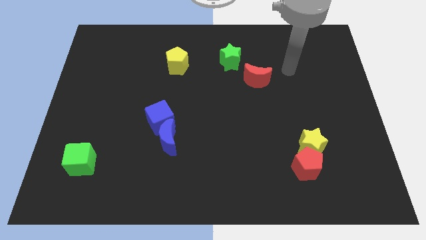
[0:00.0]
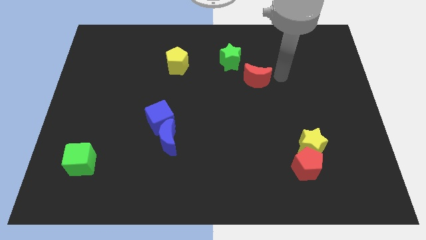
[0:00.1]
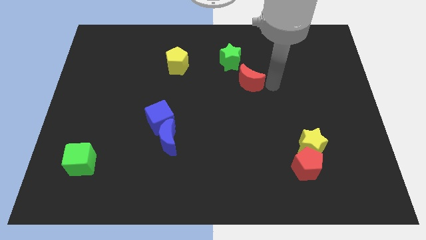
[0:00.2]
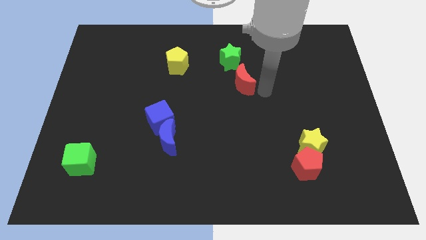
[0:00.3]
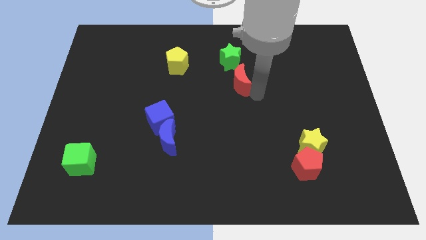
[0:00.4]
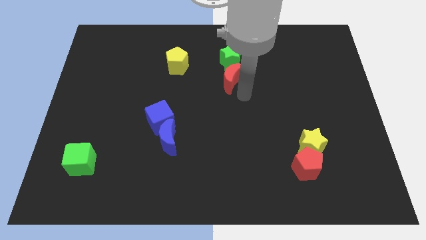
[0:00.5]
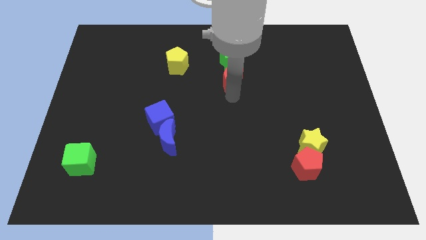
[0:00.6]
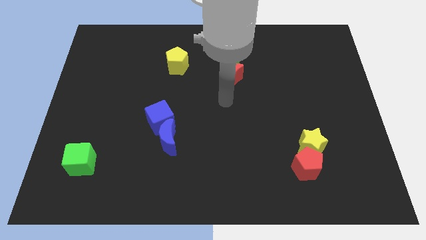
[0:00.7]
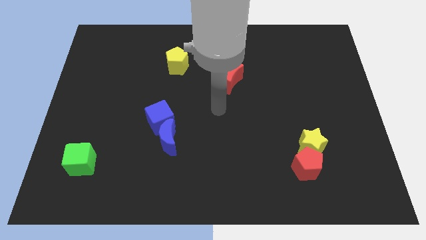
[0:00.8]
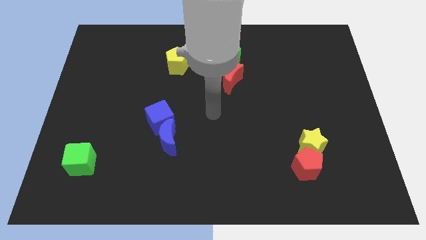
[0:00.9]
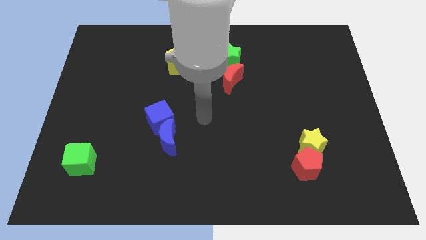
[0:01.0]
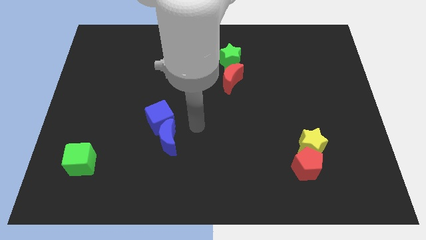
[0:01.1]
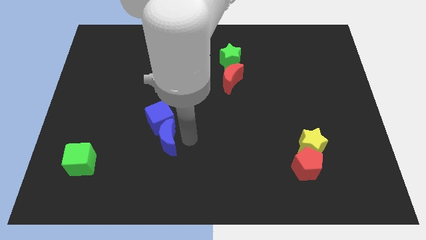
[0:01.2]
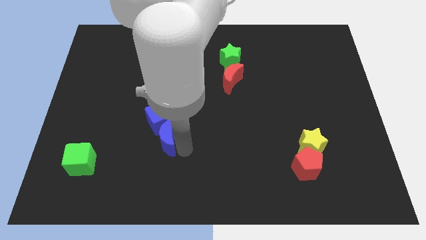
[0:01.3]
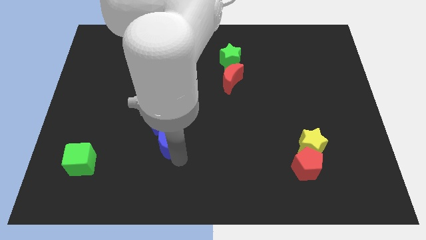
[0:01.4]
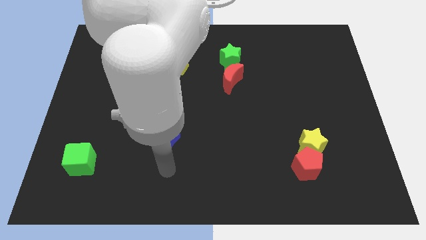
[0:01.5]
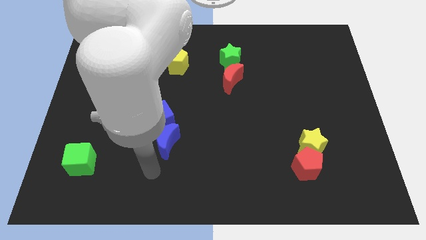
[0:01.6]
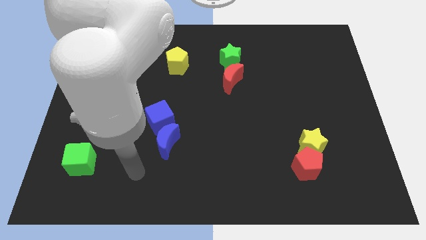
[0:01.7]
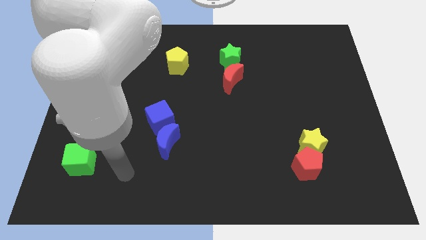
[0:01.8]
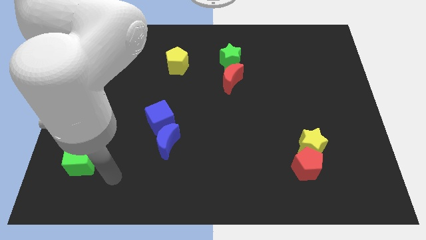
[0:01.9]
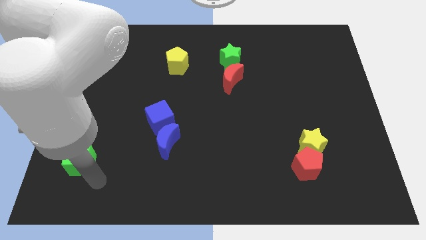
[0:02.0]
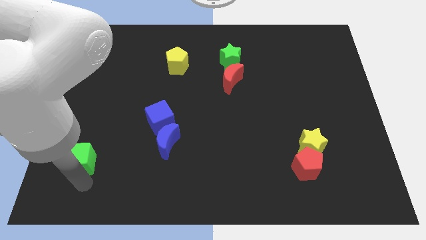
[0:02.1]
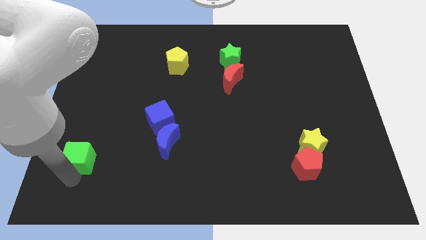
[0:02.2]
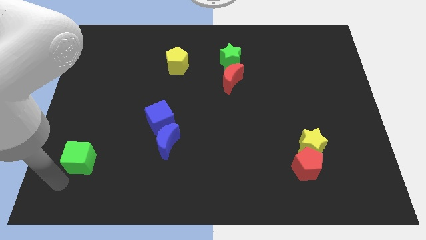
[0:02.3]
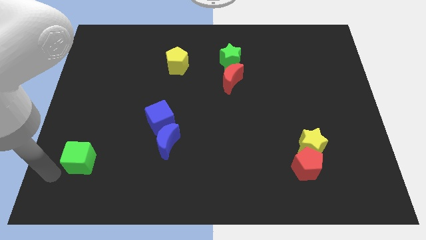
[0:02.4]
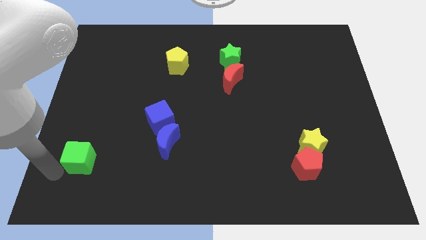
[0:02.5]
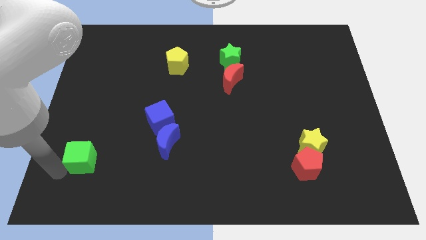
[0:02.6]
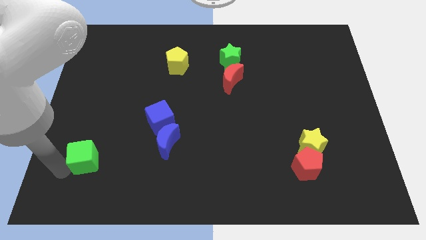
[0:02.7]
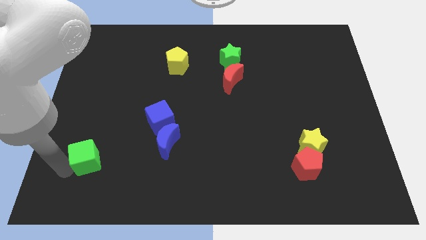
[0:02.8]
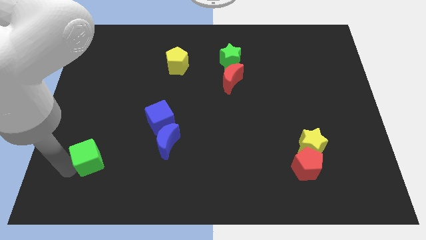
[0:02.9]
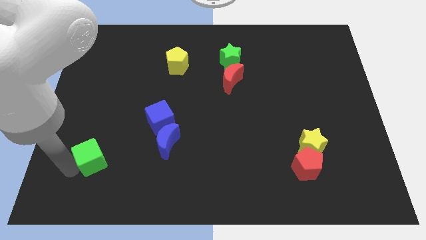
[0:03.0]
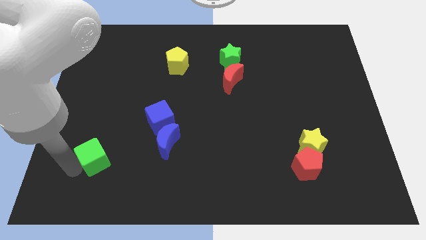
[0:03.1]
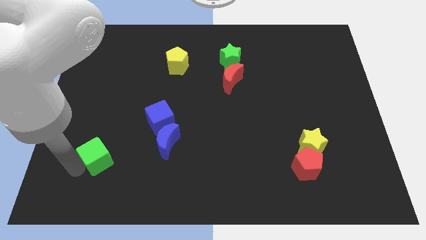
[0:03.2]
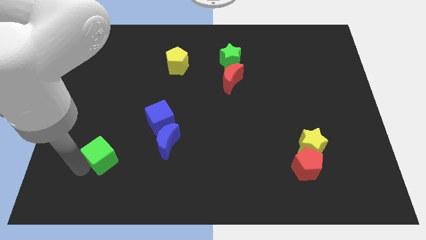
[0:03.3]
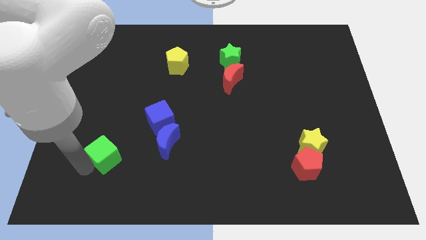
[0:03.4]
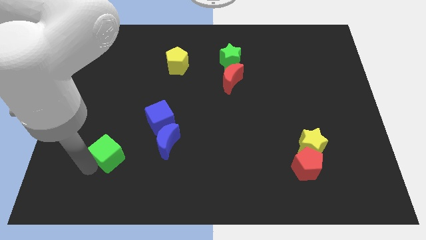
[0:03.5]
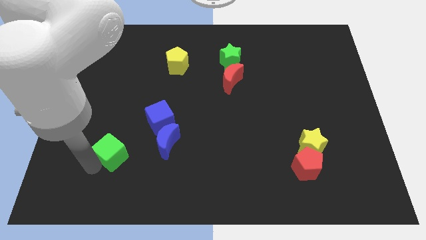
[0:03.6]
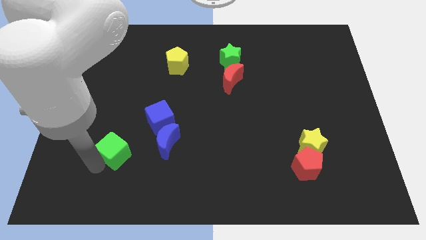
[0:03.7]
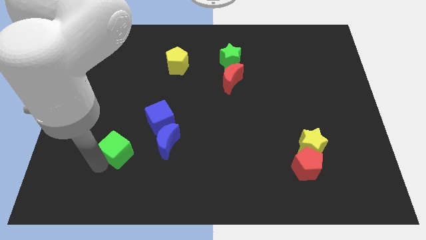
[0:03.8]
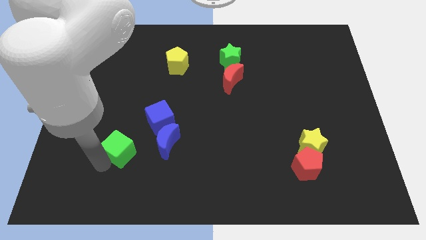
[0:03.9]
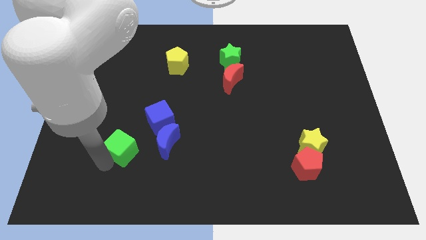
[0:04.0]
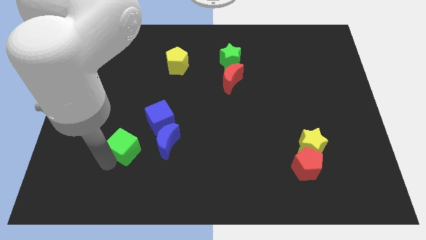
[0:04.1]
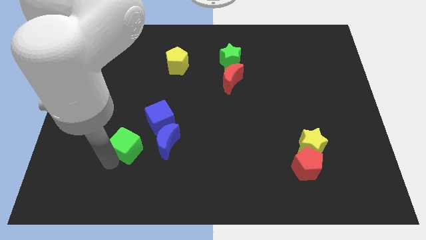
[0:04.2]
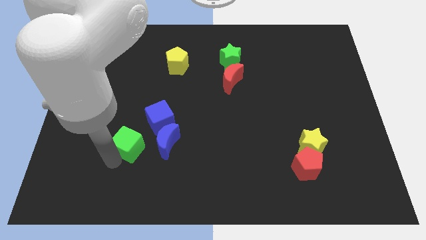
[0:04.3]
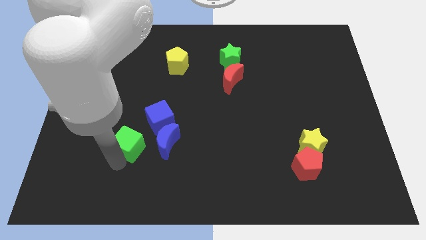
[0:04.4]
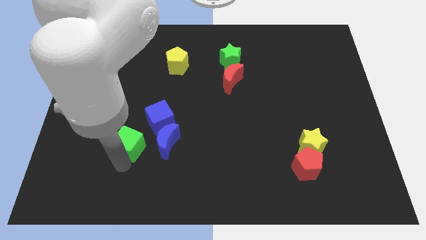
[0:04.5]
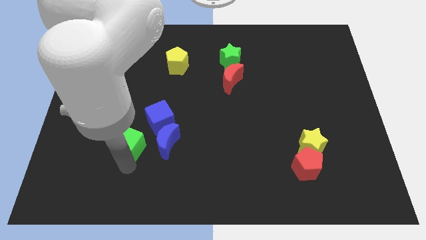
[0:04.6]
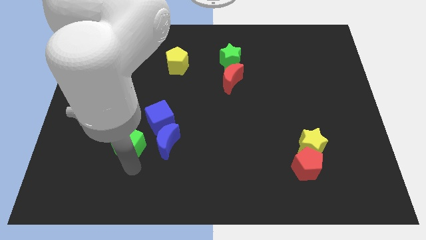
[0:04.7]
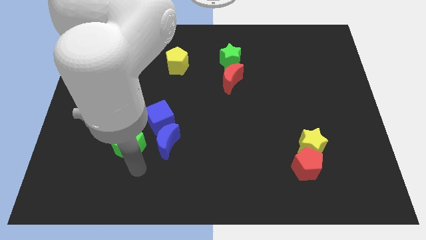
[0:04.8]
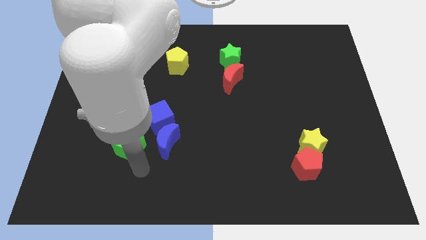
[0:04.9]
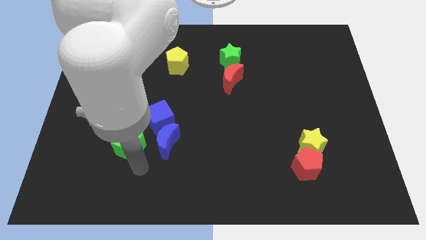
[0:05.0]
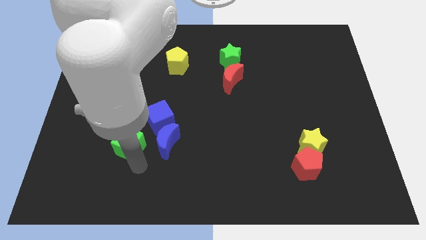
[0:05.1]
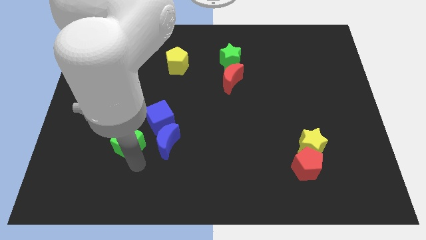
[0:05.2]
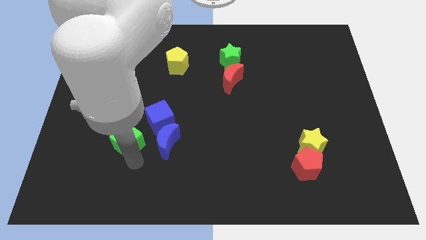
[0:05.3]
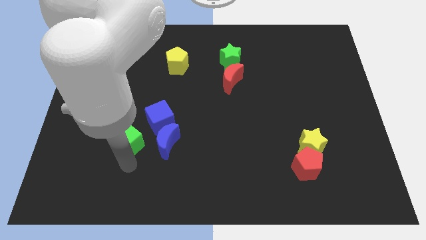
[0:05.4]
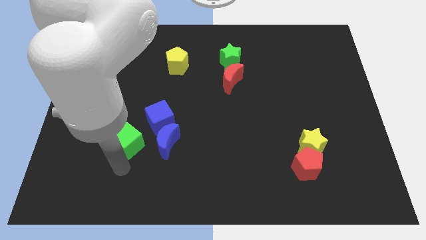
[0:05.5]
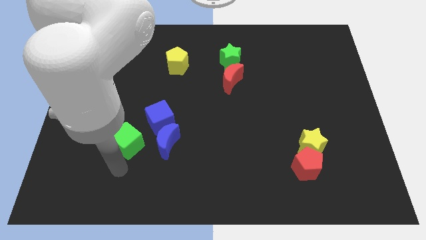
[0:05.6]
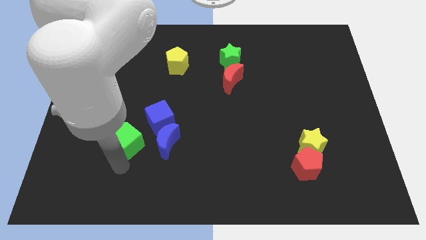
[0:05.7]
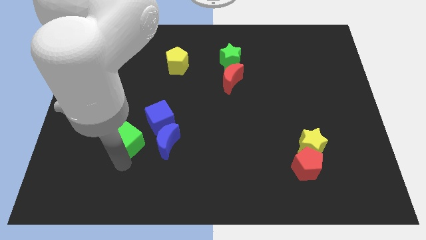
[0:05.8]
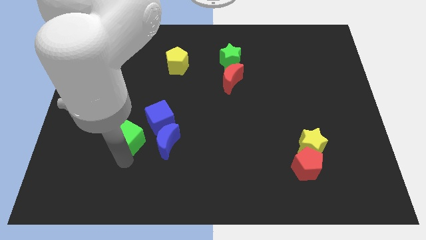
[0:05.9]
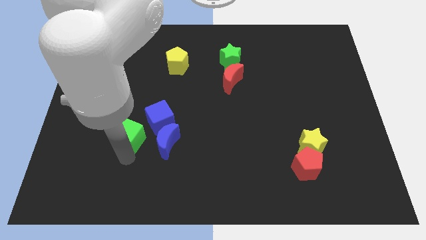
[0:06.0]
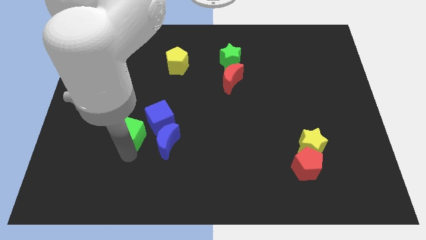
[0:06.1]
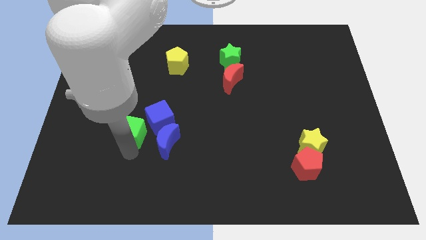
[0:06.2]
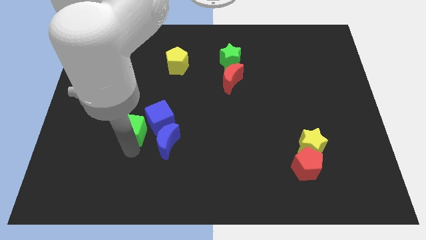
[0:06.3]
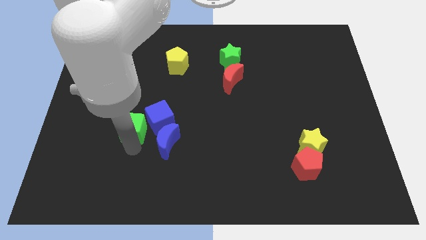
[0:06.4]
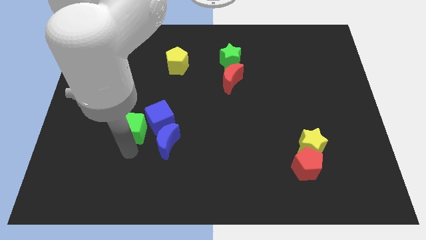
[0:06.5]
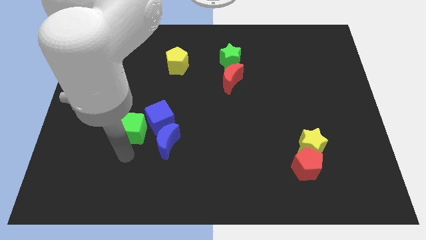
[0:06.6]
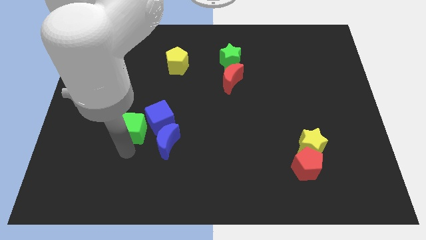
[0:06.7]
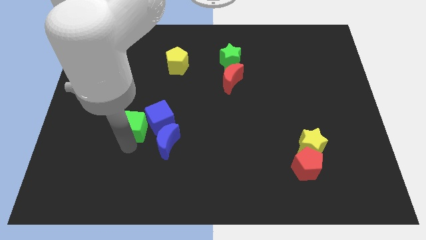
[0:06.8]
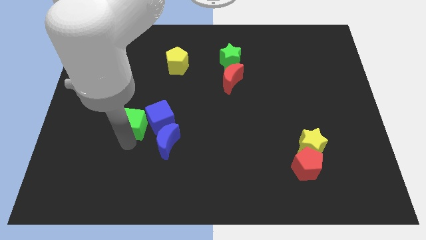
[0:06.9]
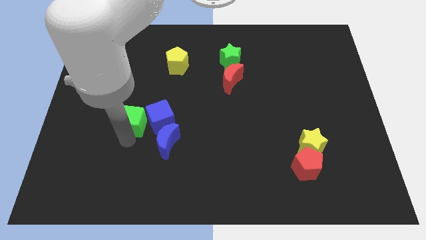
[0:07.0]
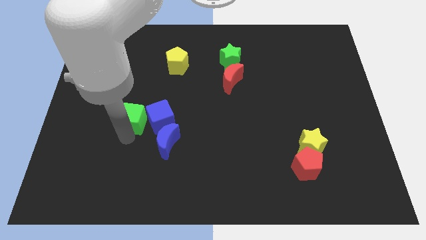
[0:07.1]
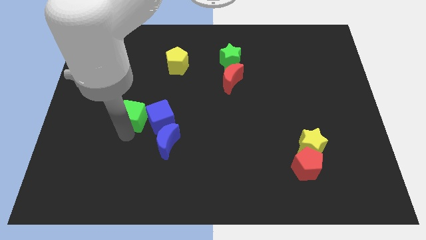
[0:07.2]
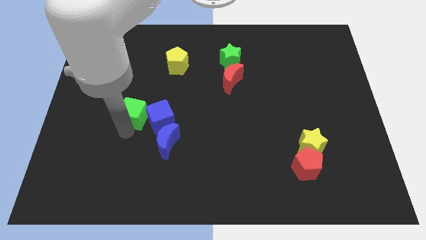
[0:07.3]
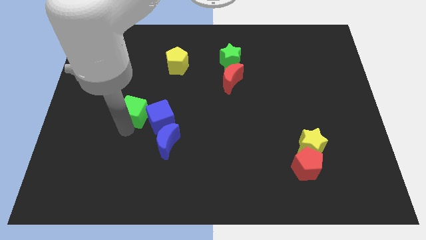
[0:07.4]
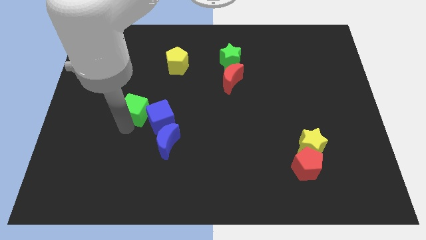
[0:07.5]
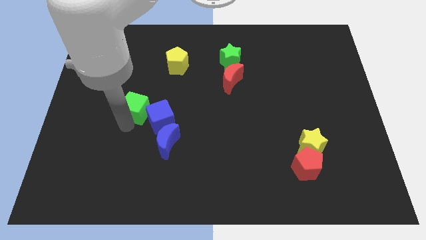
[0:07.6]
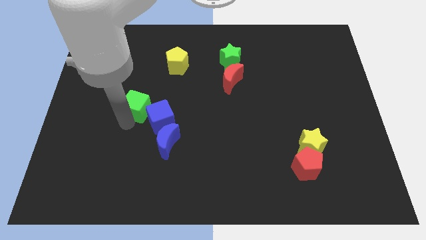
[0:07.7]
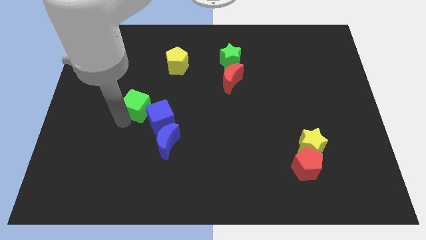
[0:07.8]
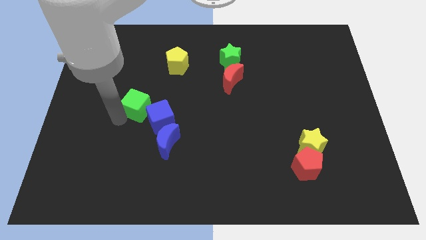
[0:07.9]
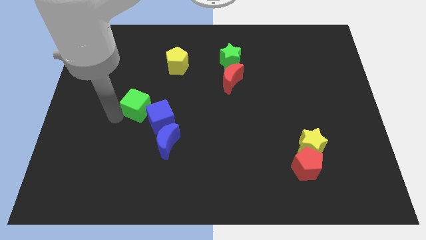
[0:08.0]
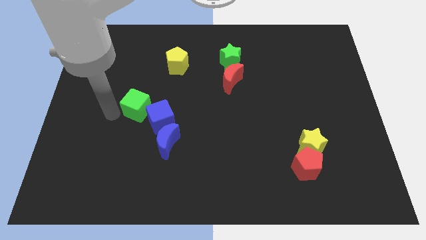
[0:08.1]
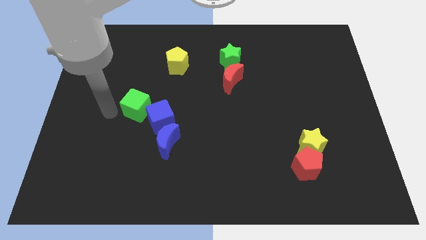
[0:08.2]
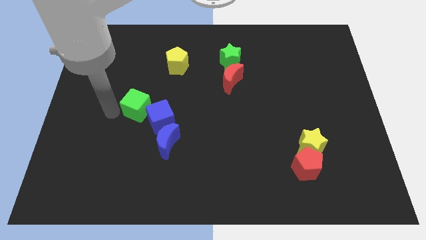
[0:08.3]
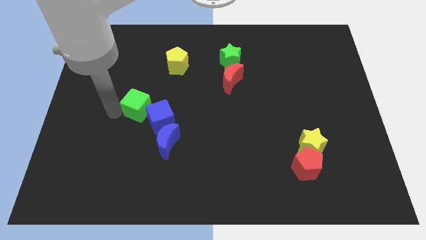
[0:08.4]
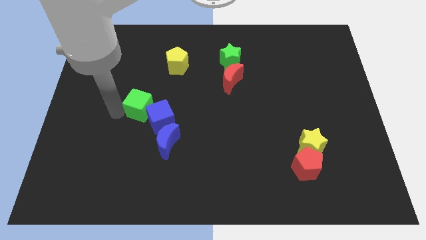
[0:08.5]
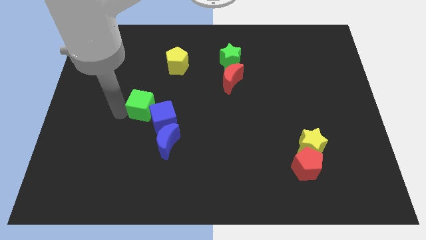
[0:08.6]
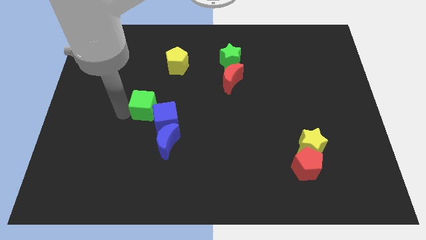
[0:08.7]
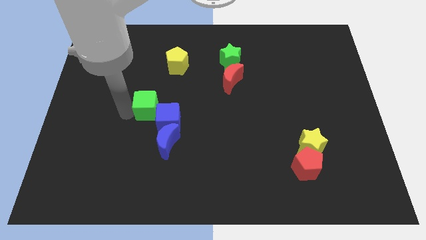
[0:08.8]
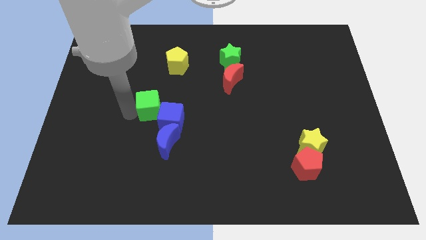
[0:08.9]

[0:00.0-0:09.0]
slide the green cube to the top of the blue moon
